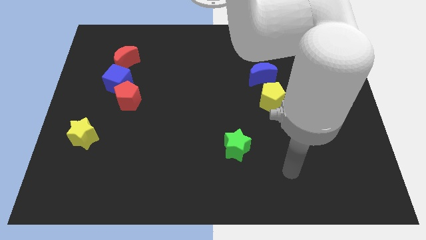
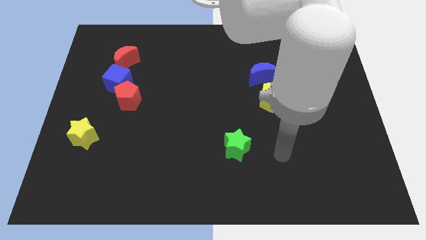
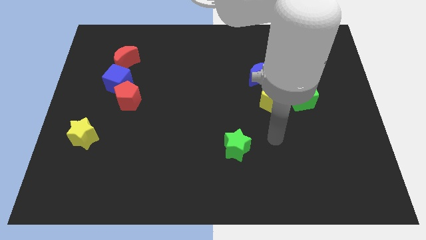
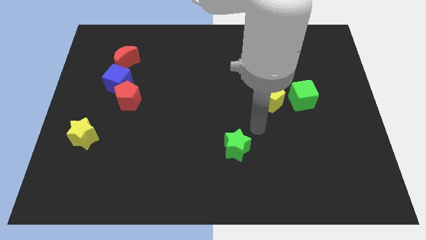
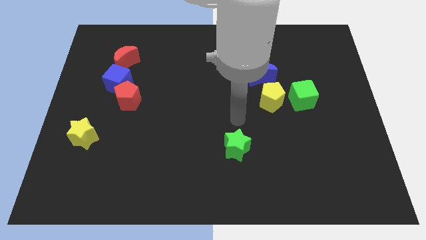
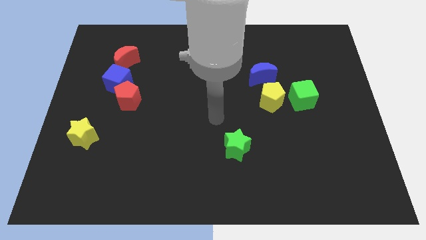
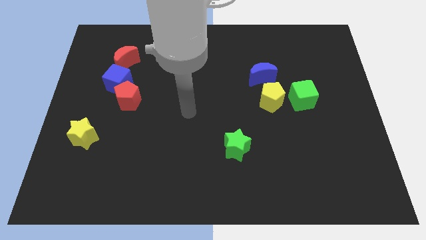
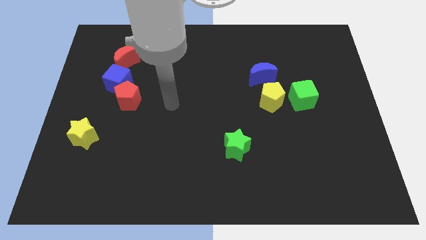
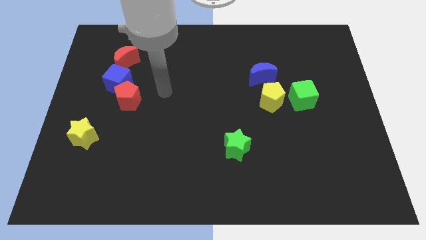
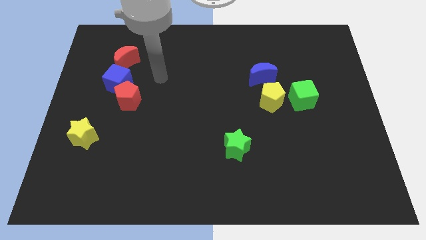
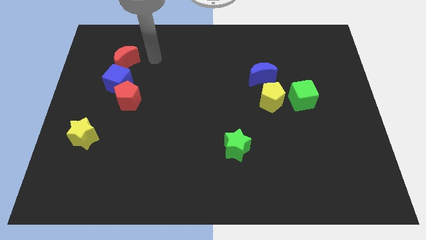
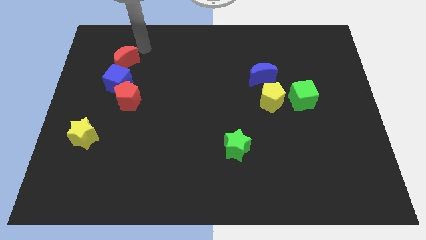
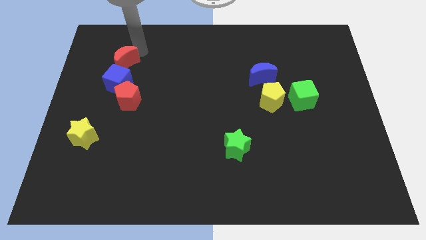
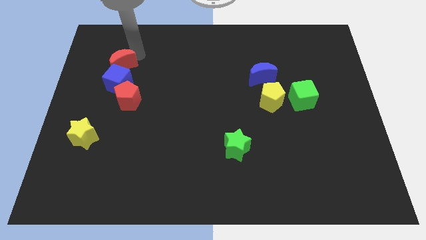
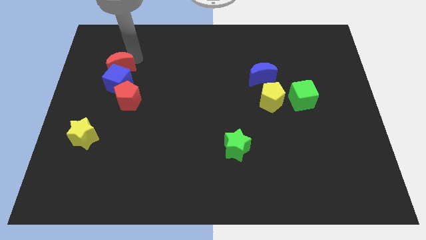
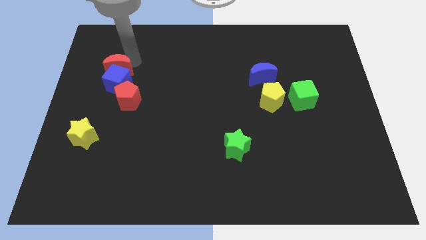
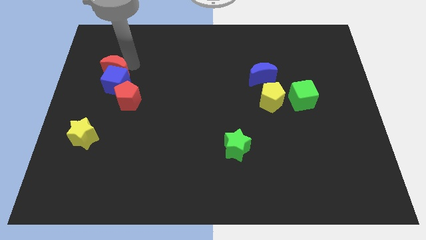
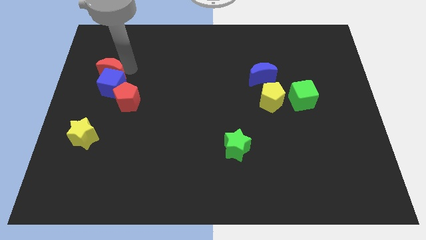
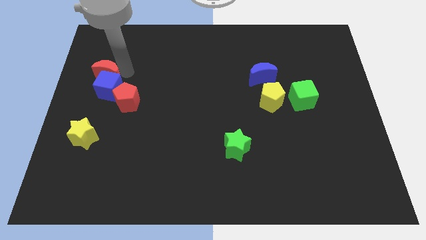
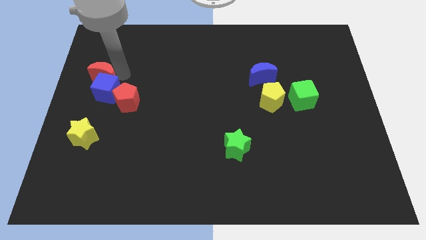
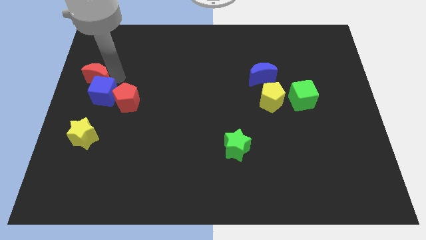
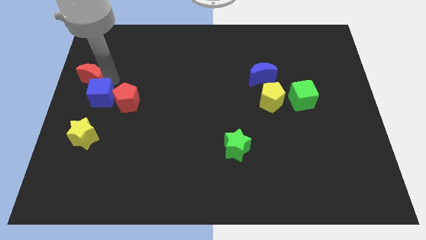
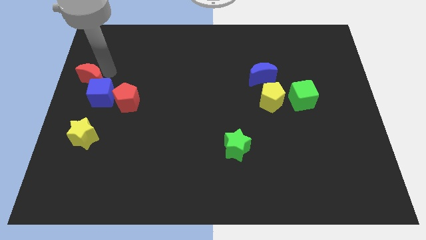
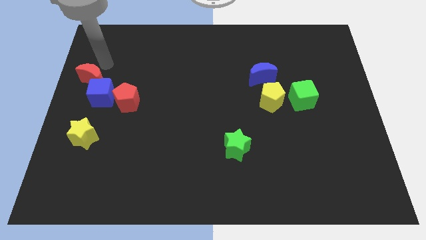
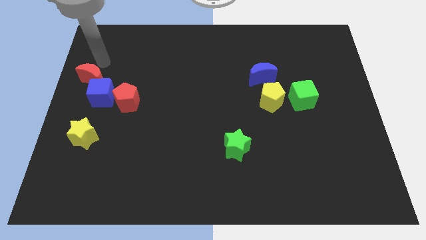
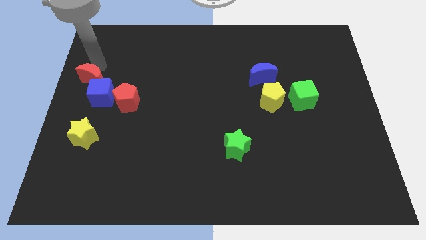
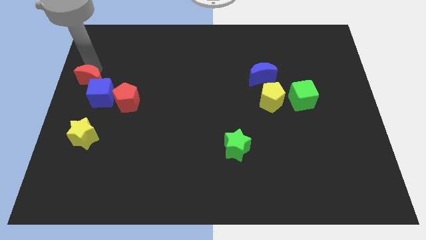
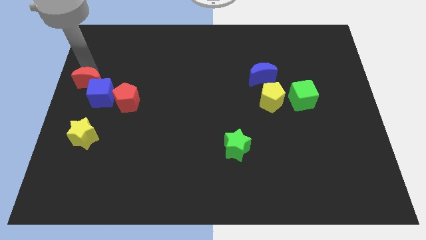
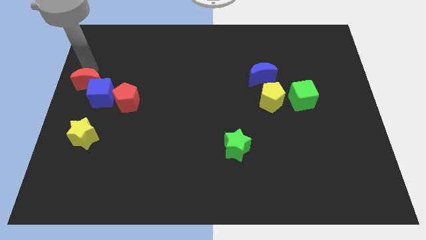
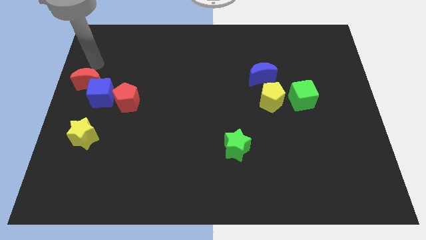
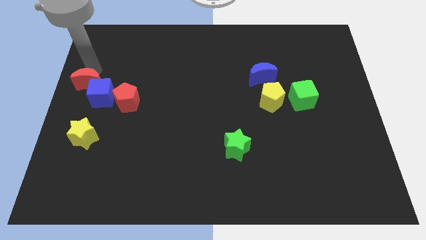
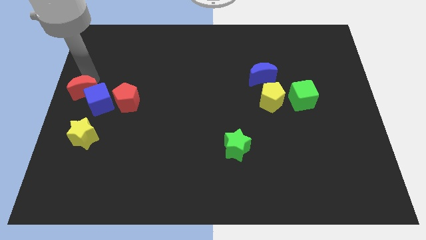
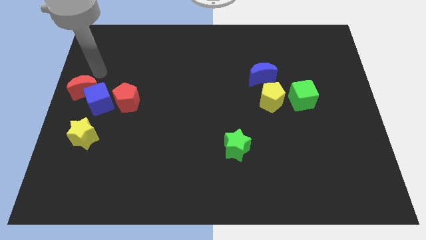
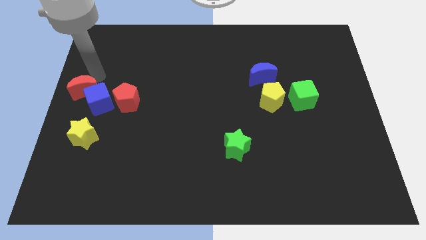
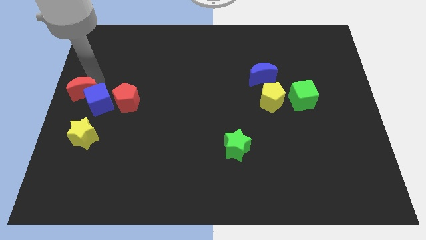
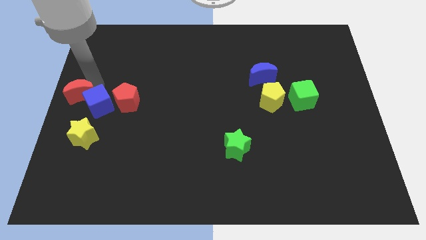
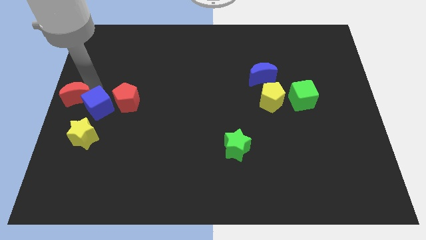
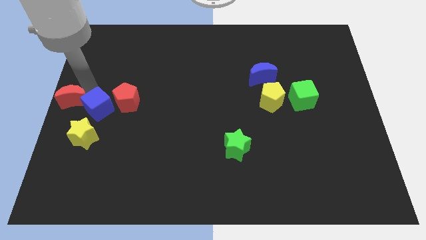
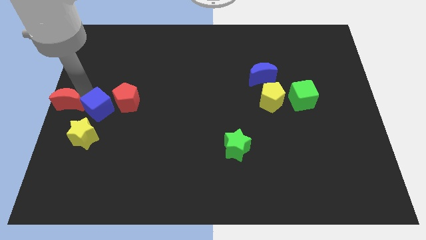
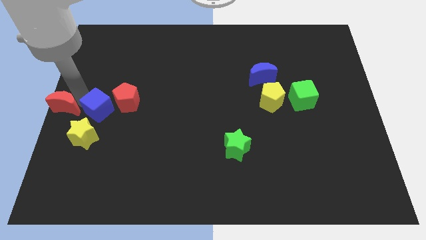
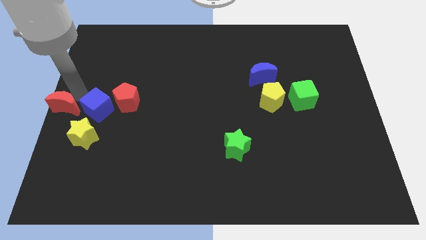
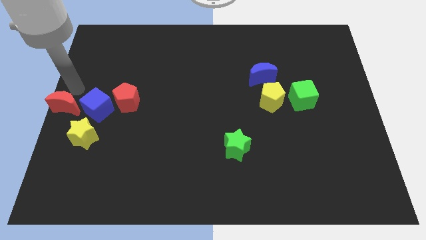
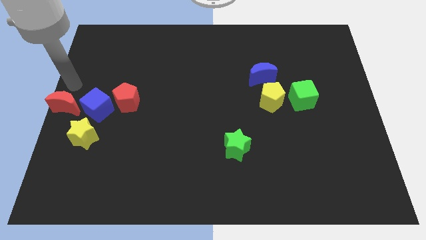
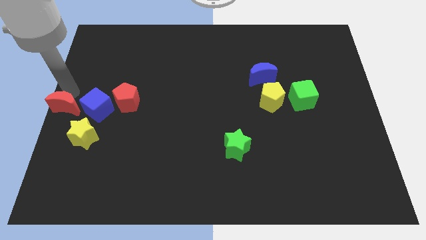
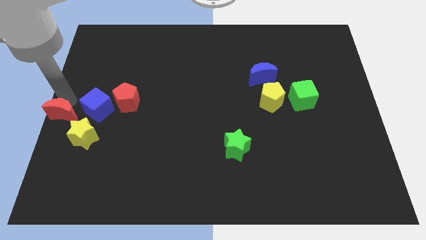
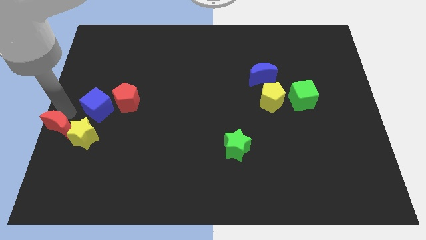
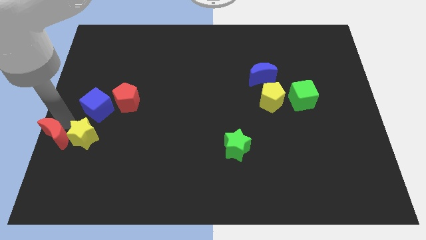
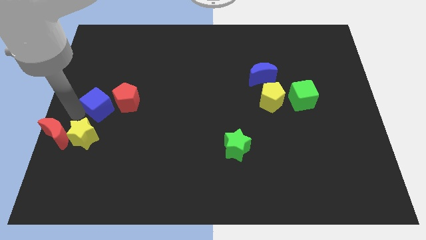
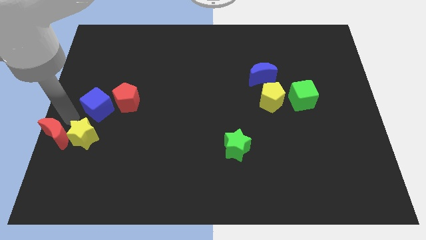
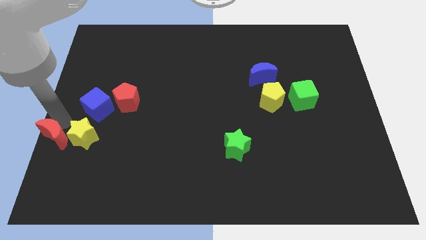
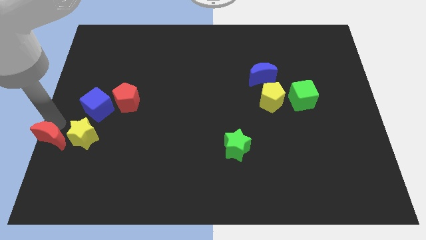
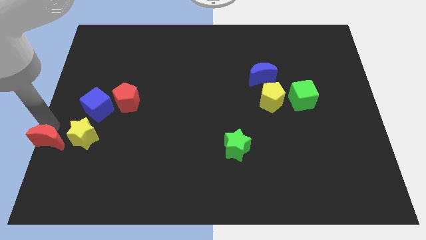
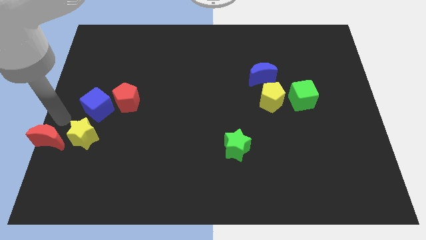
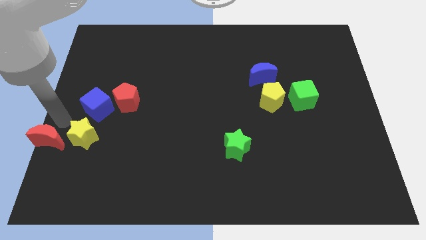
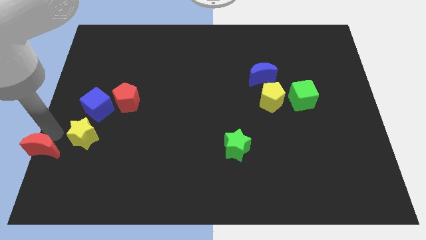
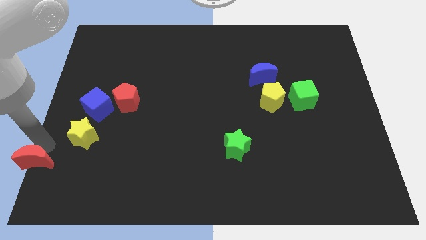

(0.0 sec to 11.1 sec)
put the red moon to the bottom left corner

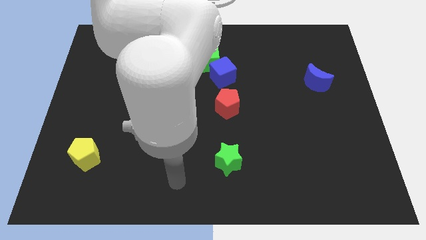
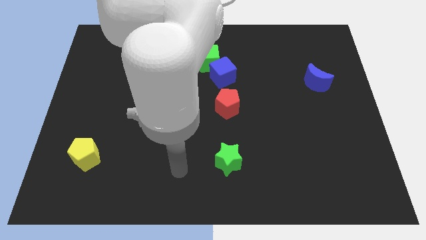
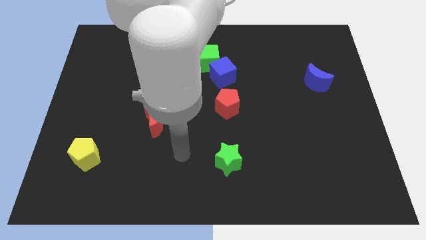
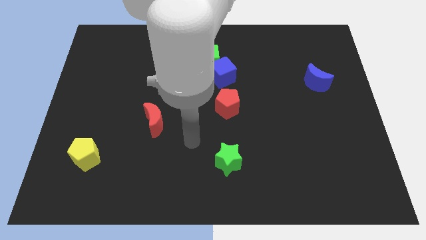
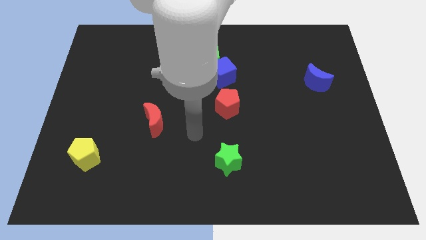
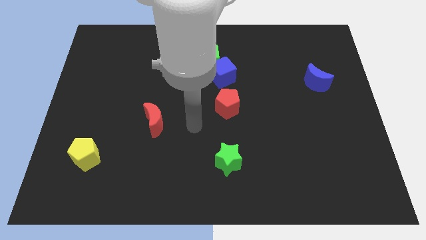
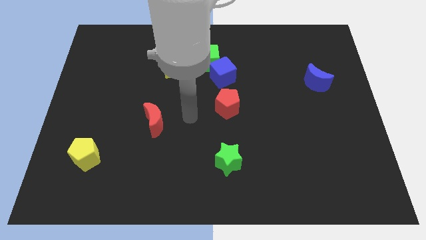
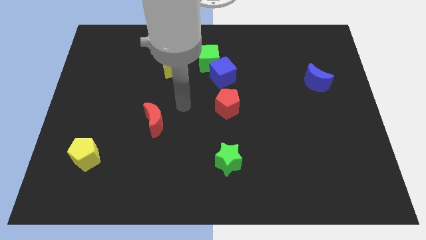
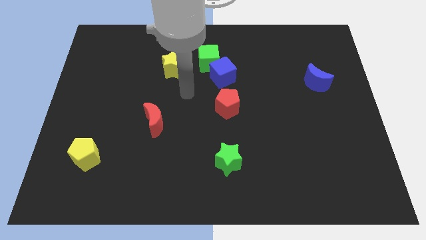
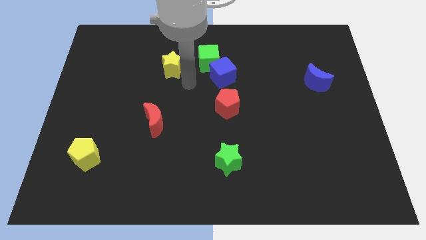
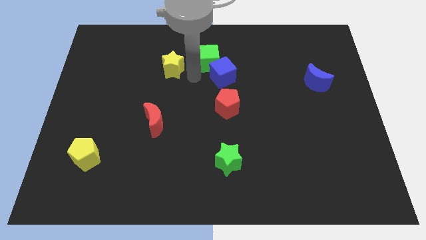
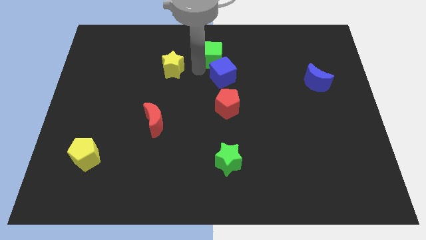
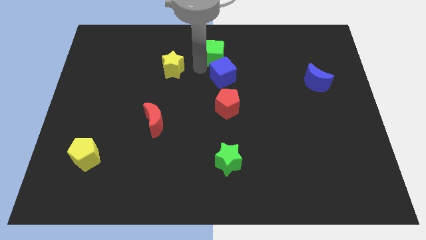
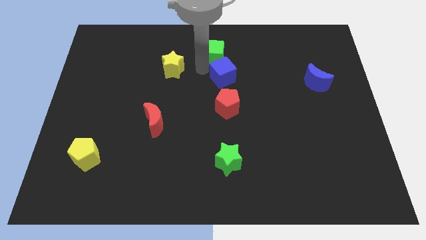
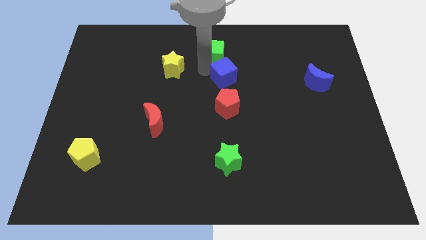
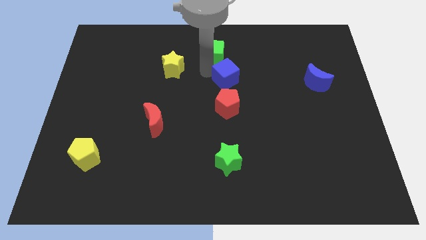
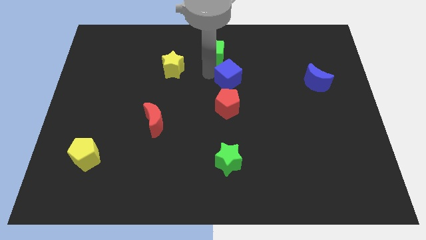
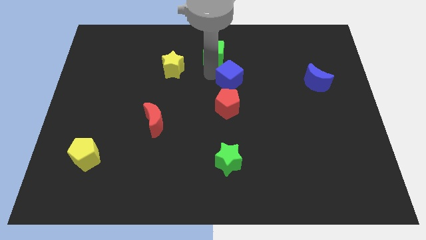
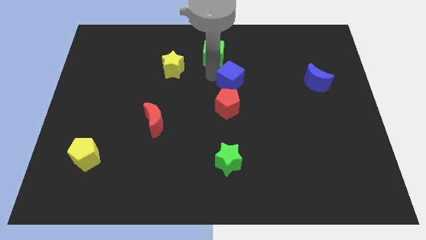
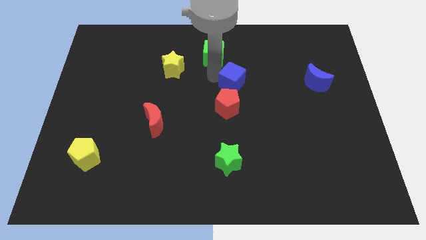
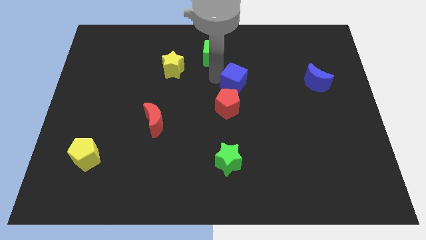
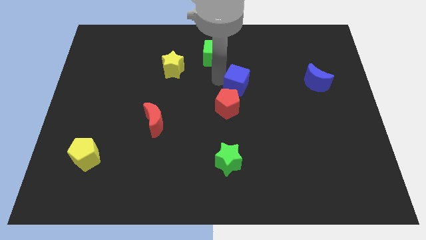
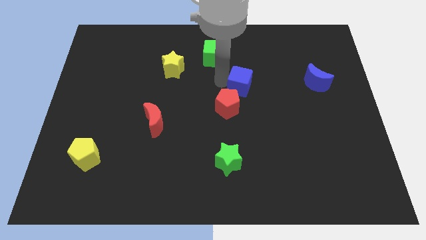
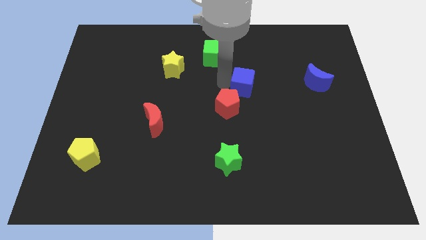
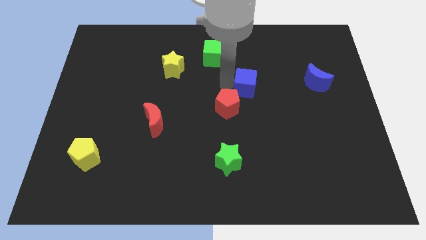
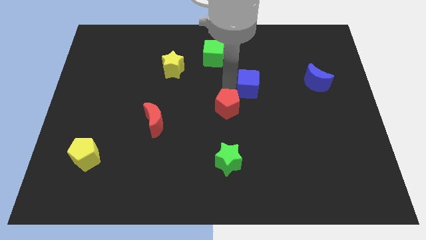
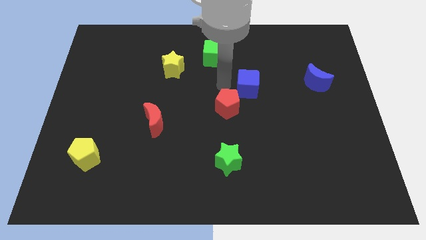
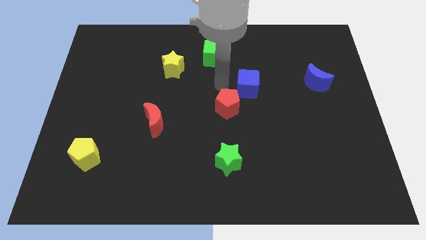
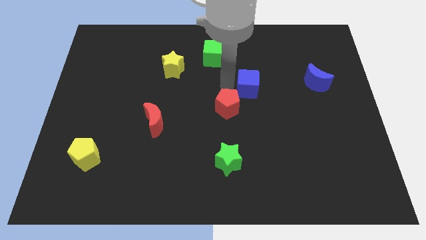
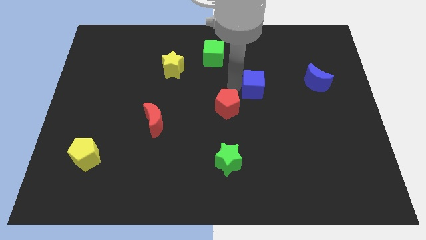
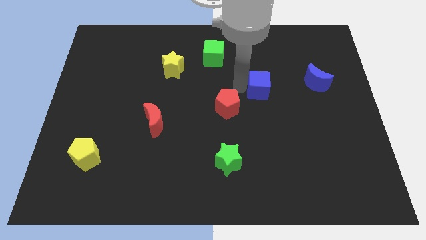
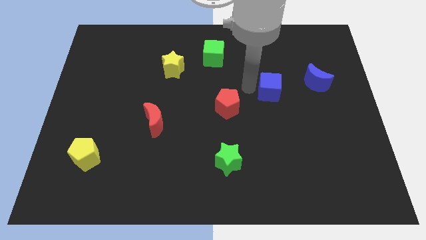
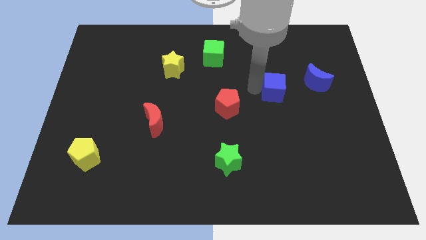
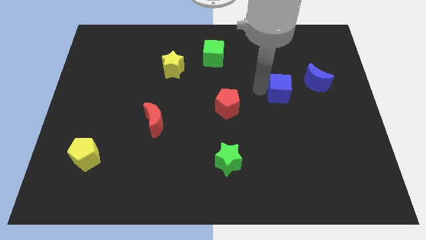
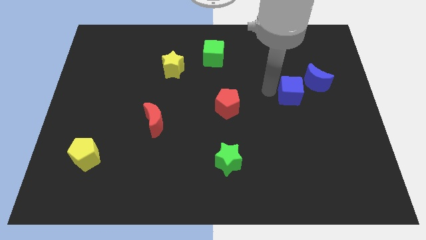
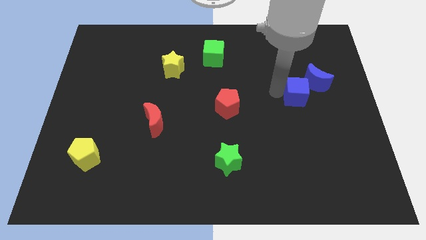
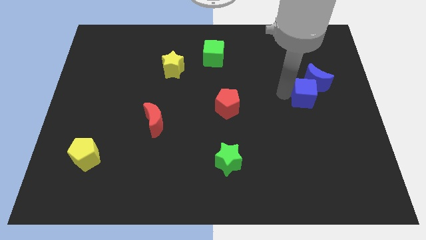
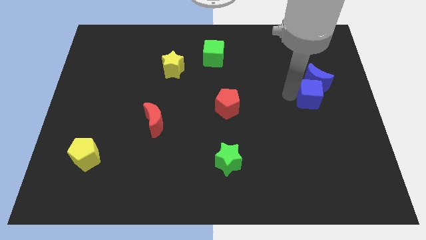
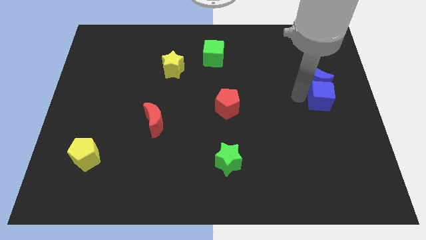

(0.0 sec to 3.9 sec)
push the blue cube to the right side
